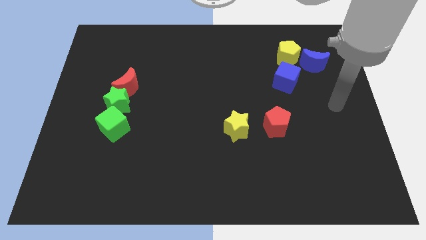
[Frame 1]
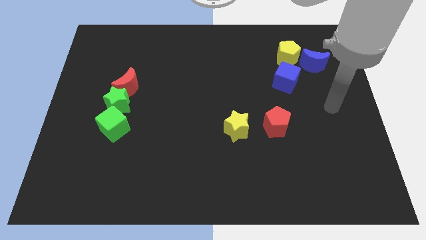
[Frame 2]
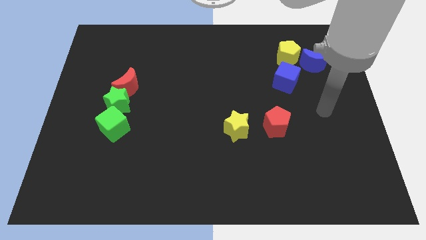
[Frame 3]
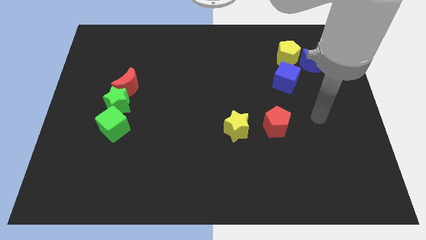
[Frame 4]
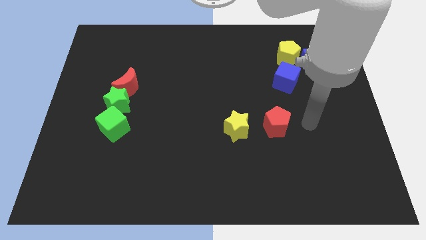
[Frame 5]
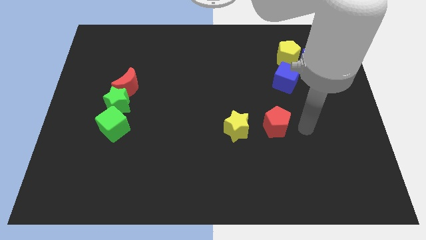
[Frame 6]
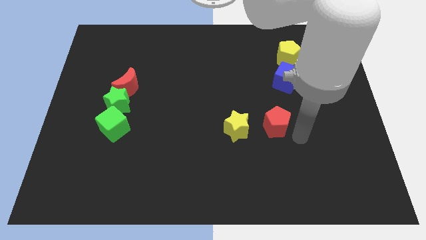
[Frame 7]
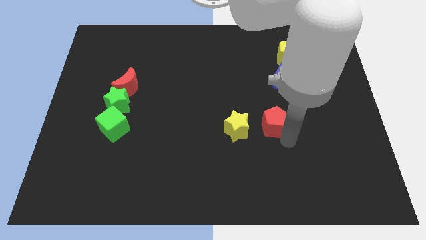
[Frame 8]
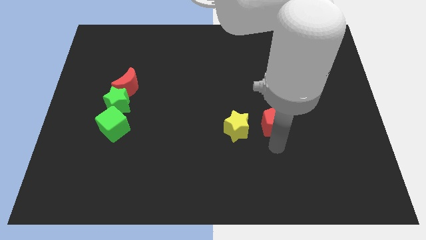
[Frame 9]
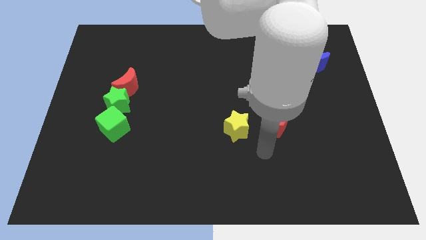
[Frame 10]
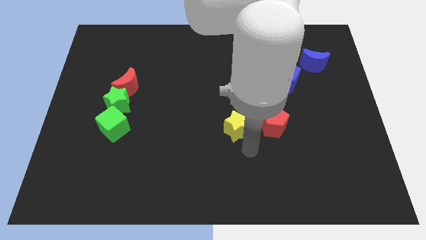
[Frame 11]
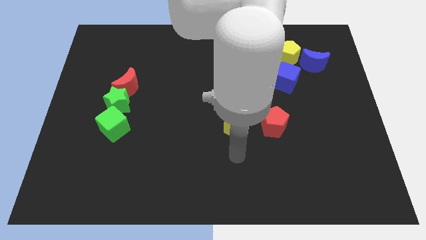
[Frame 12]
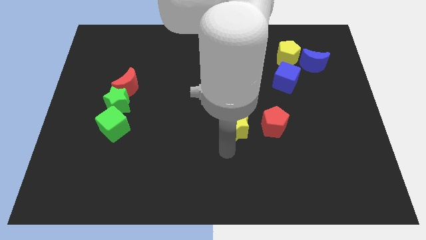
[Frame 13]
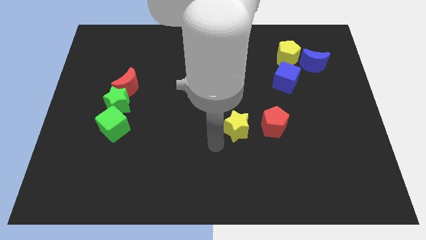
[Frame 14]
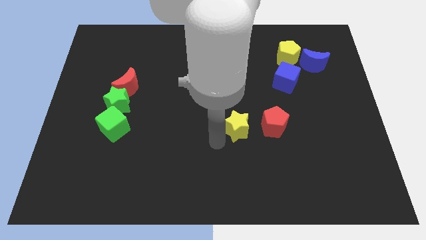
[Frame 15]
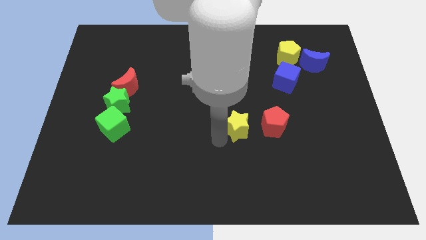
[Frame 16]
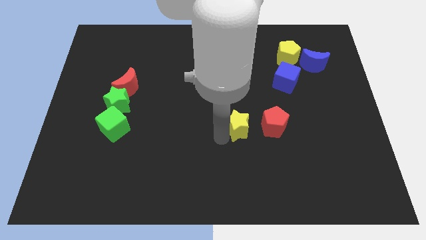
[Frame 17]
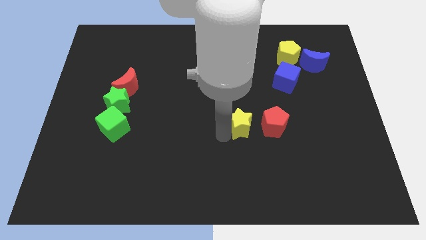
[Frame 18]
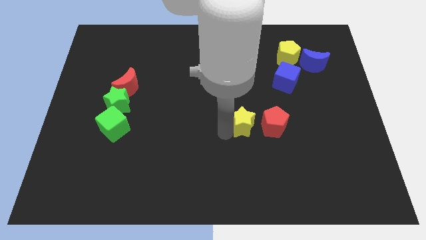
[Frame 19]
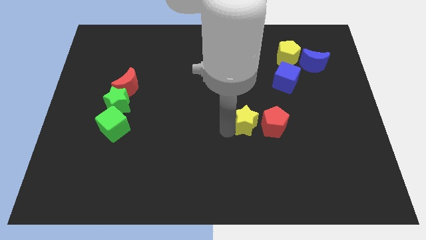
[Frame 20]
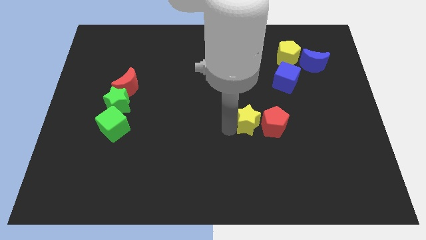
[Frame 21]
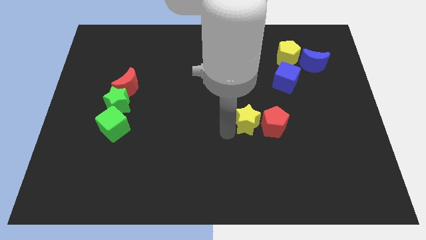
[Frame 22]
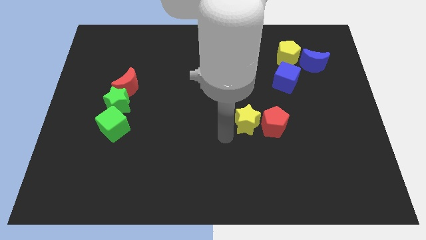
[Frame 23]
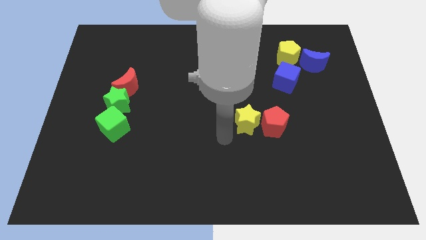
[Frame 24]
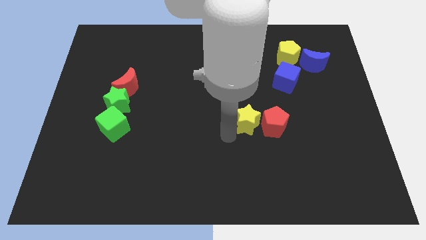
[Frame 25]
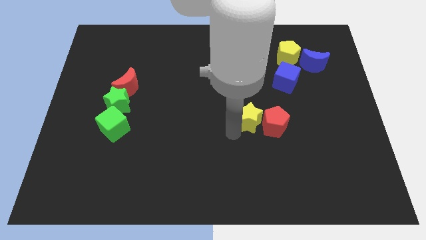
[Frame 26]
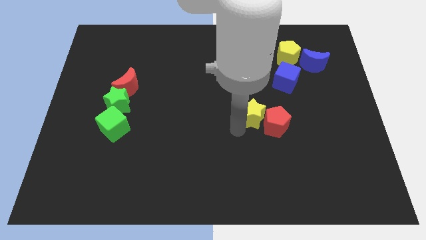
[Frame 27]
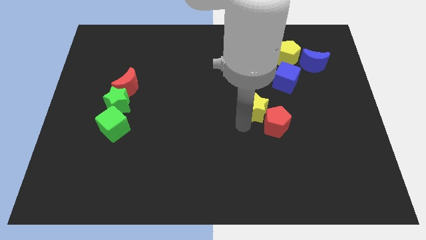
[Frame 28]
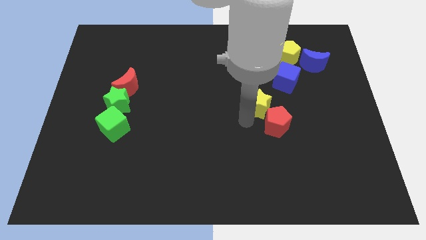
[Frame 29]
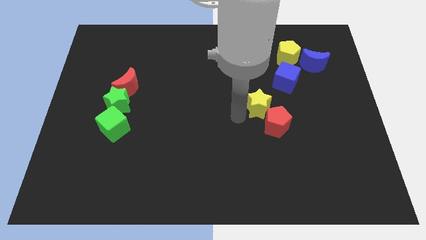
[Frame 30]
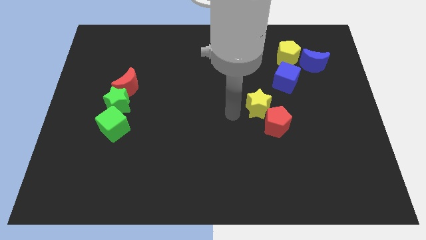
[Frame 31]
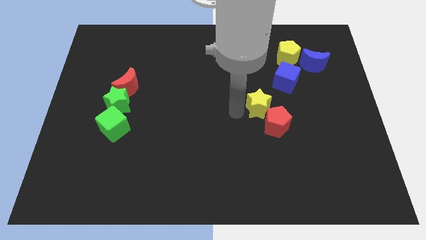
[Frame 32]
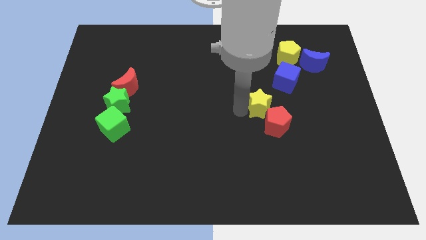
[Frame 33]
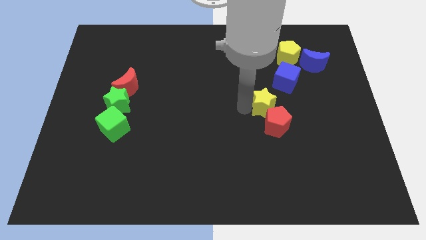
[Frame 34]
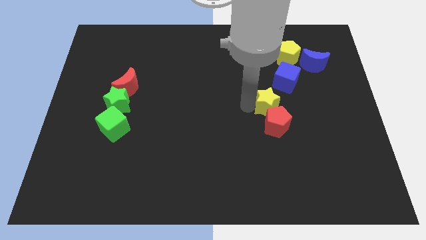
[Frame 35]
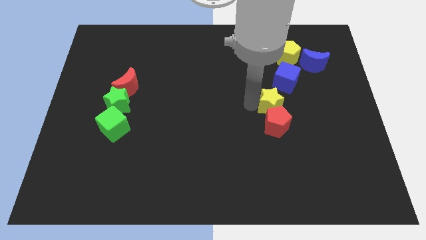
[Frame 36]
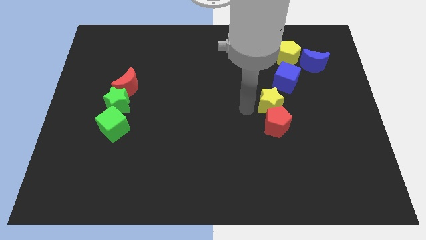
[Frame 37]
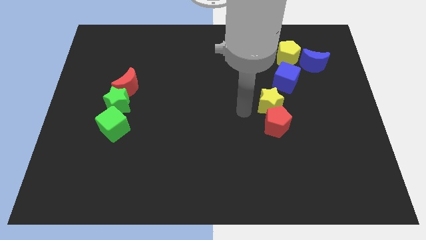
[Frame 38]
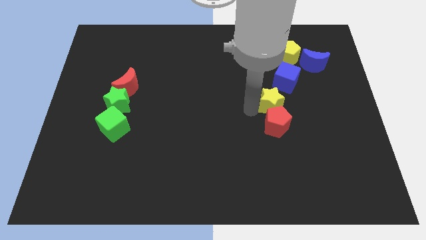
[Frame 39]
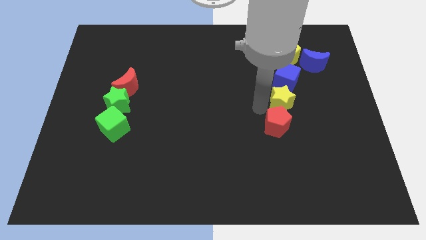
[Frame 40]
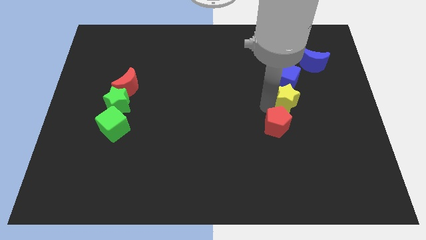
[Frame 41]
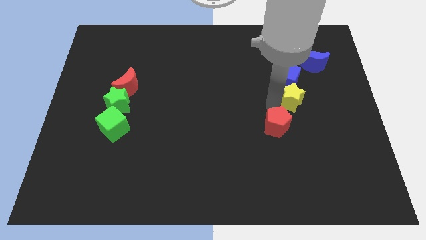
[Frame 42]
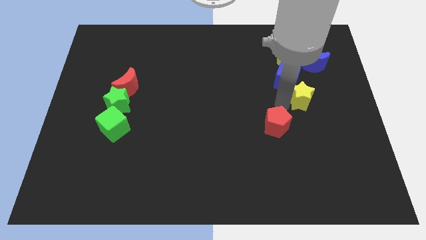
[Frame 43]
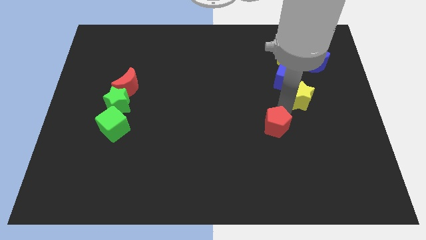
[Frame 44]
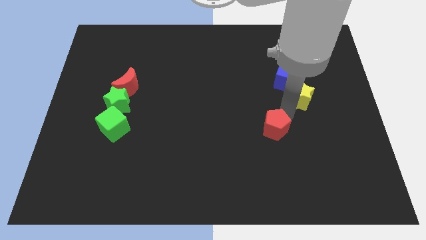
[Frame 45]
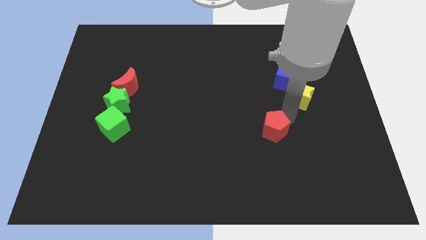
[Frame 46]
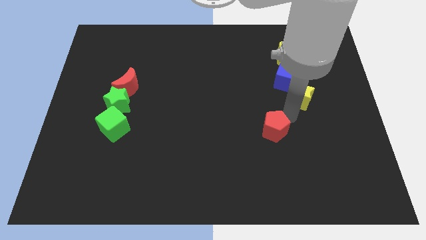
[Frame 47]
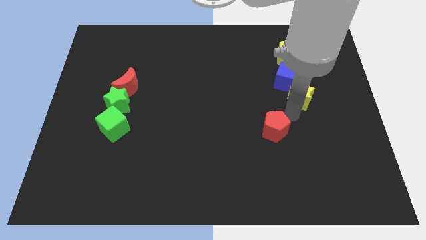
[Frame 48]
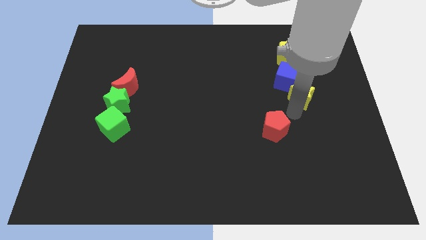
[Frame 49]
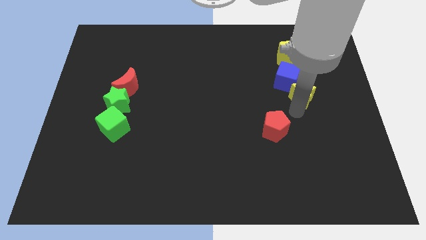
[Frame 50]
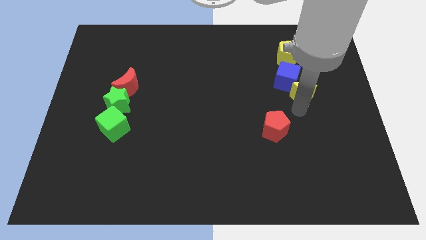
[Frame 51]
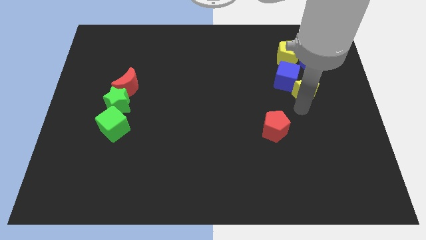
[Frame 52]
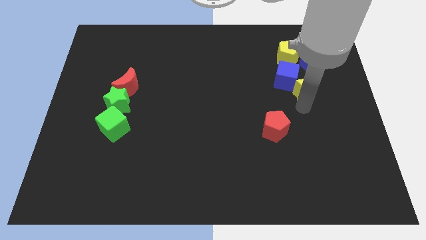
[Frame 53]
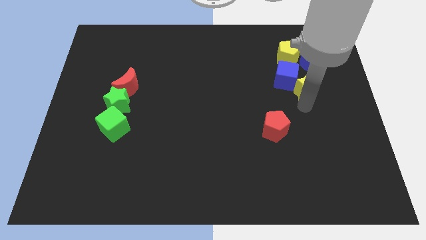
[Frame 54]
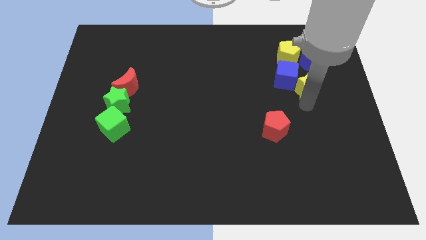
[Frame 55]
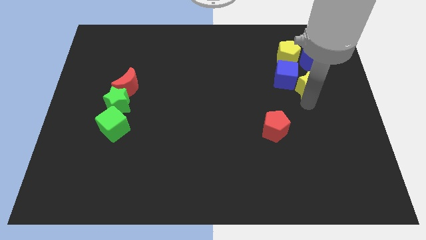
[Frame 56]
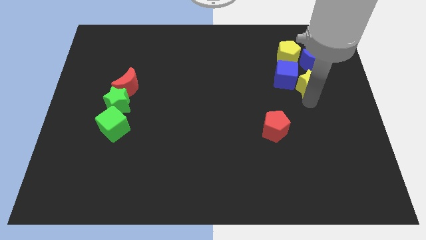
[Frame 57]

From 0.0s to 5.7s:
slide the yellow star diagonally down and to the right of the yellow pentagon
